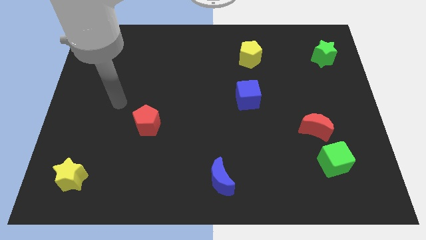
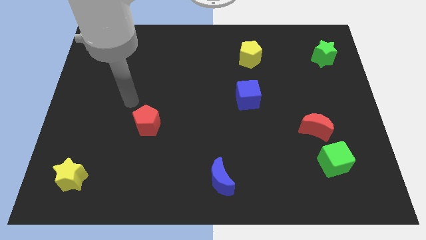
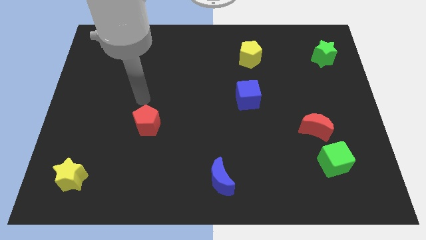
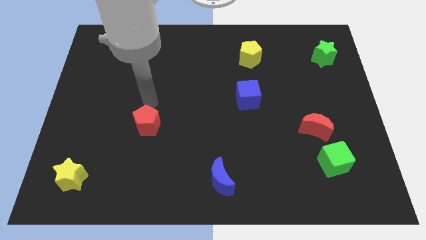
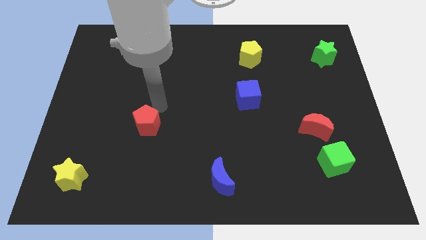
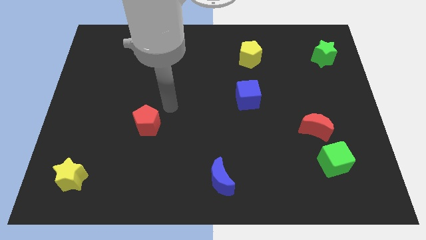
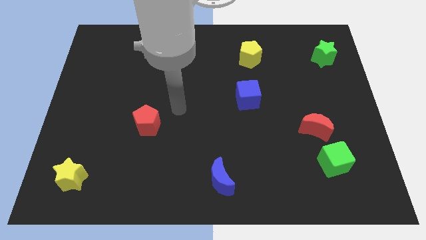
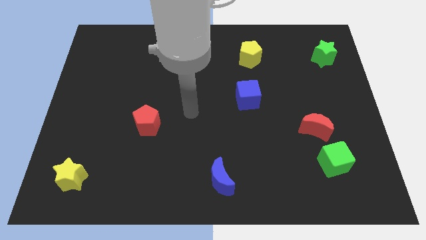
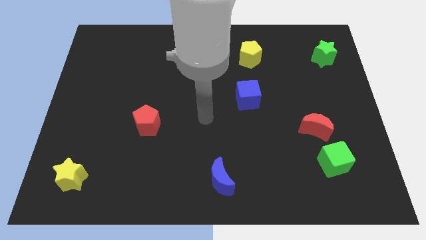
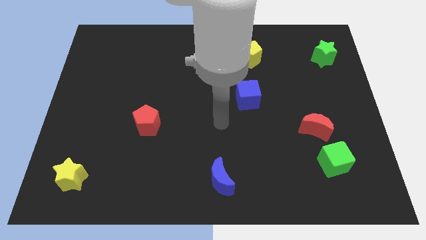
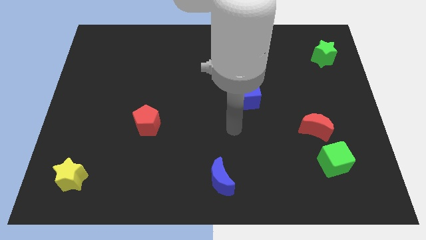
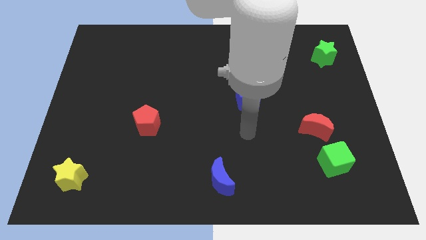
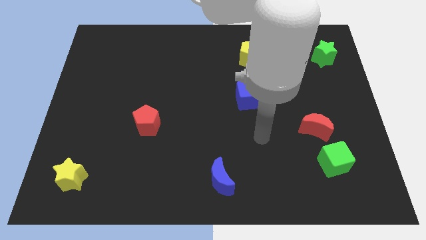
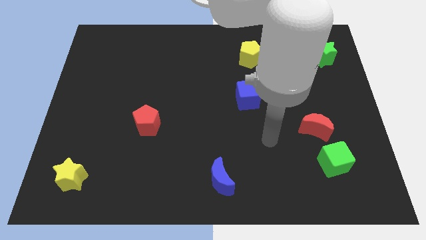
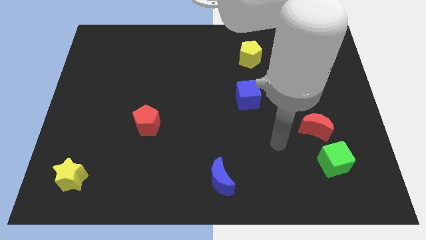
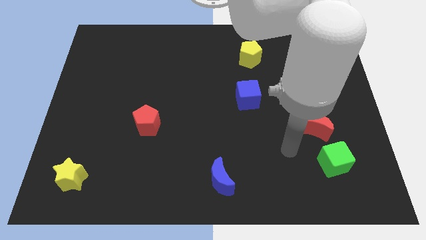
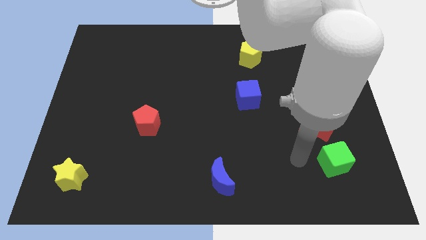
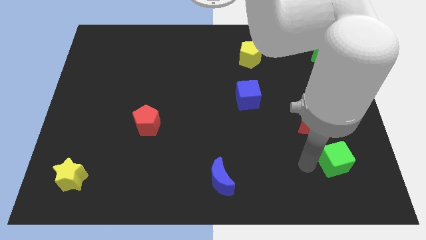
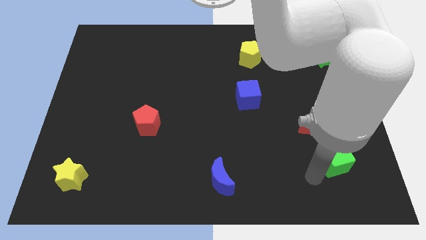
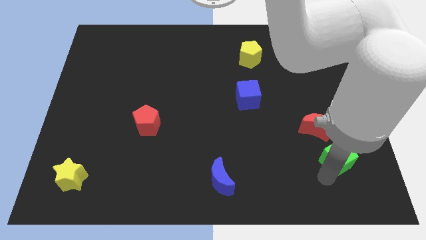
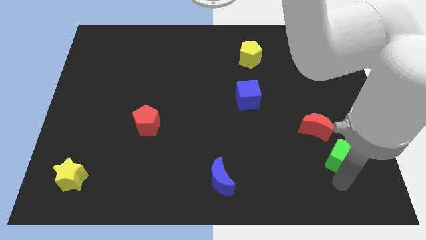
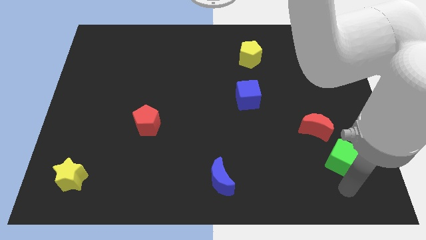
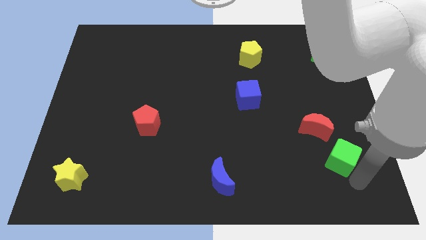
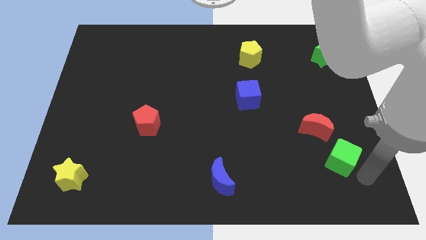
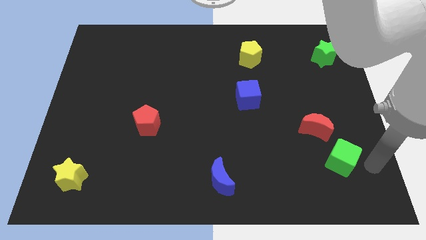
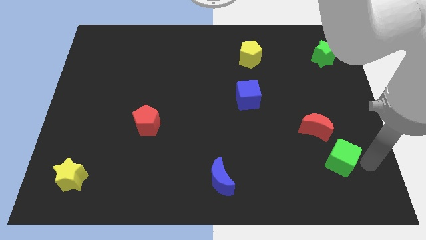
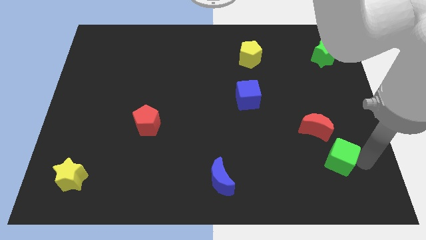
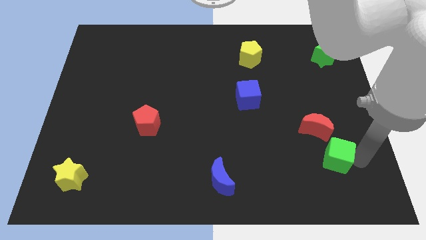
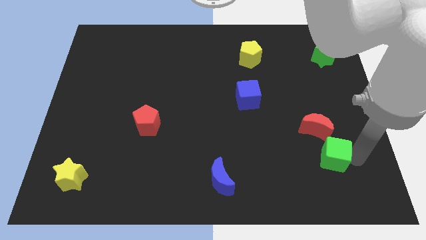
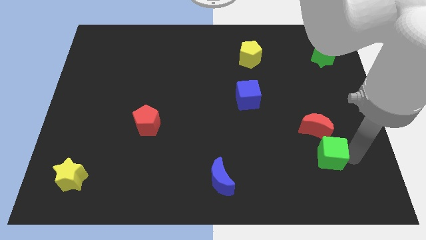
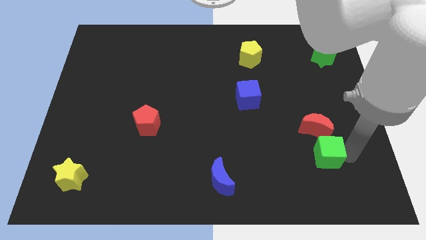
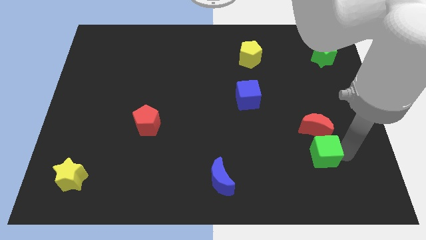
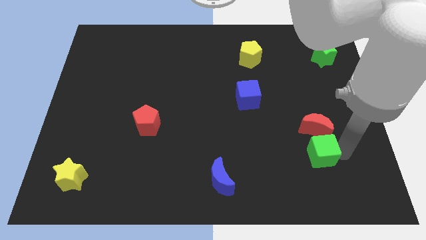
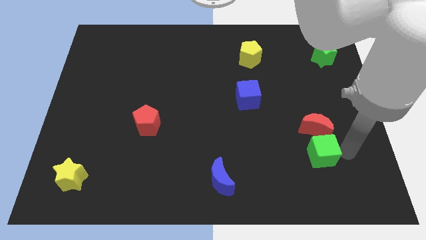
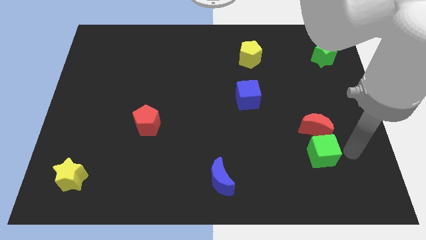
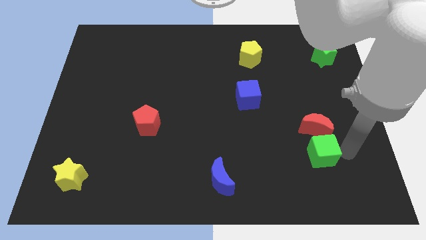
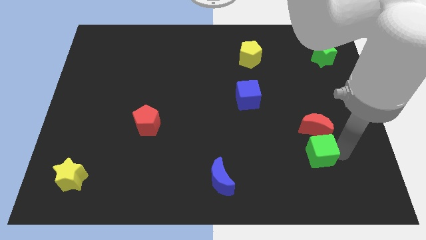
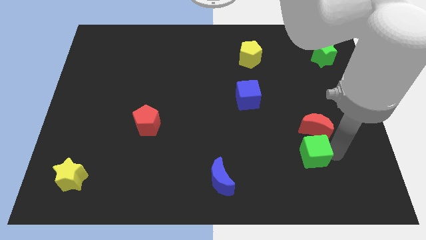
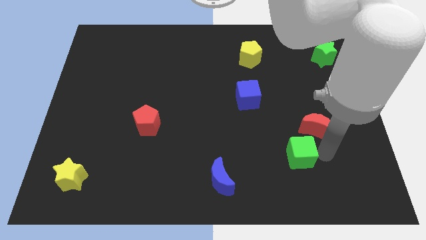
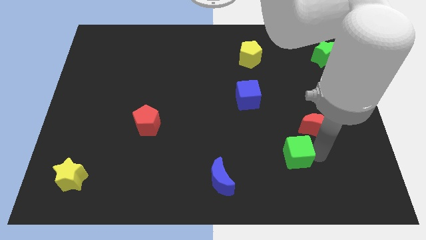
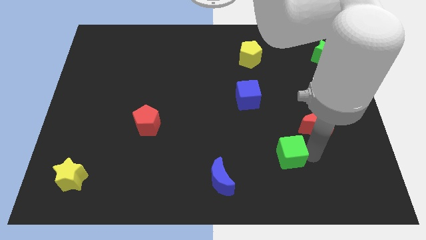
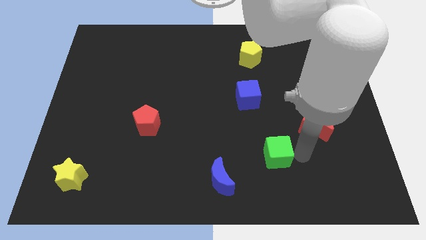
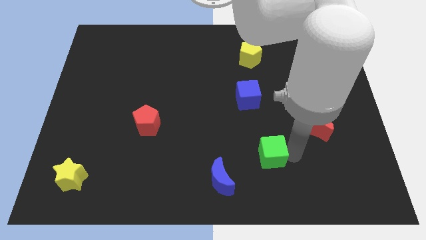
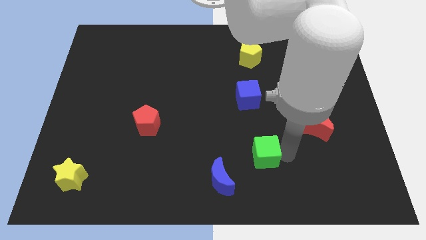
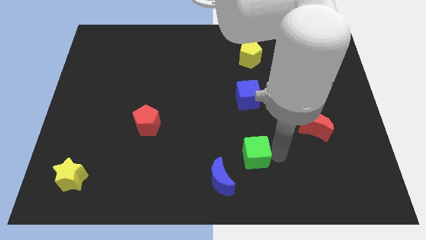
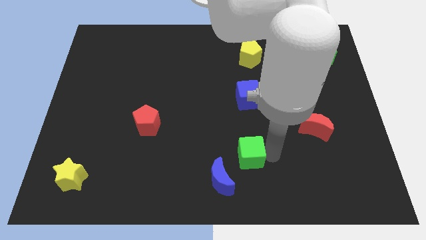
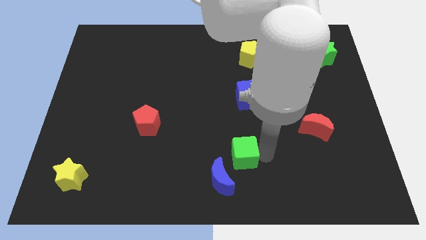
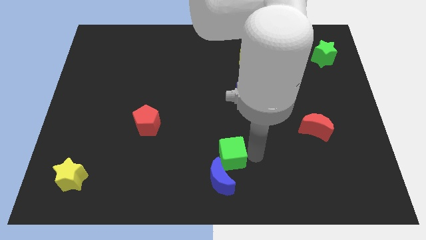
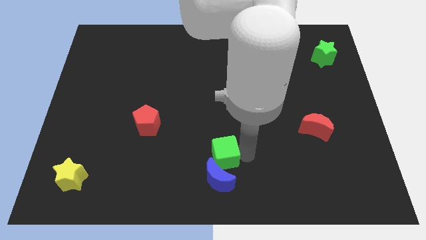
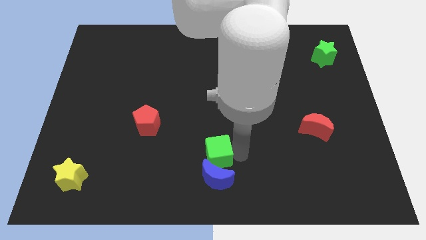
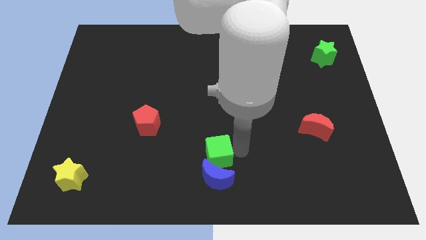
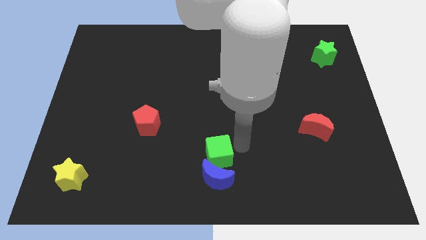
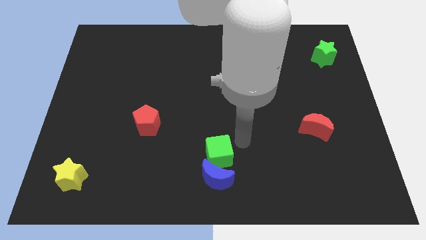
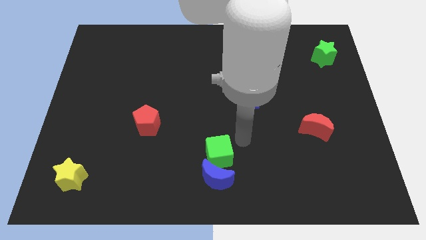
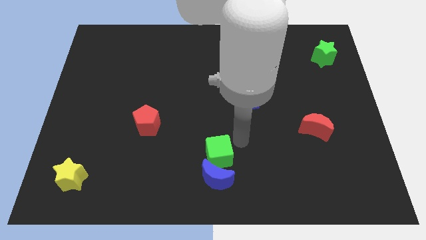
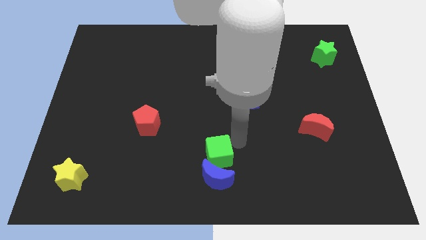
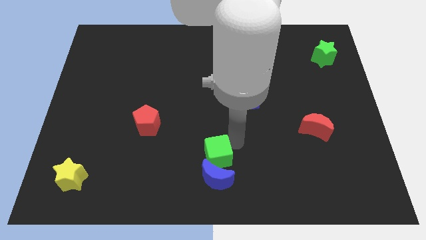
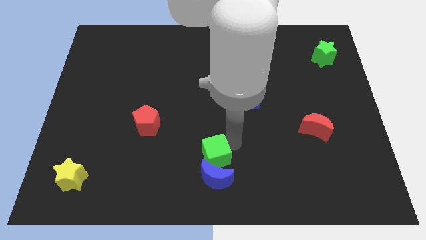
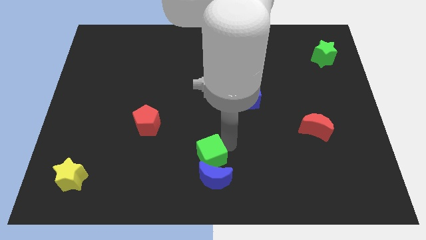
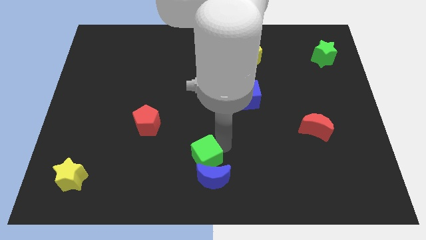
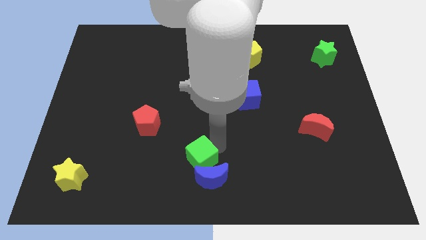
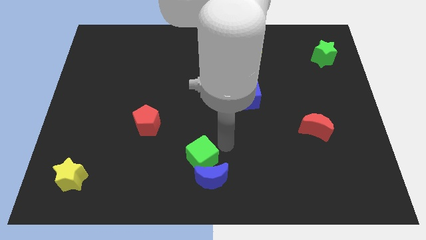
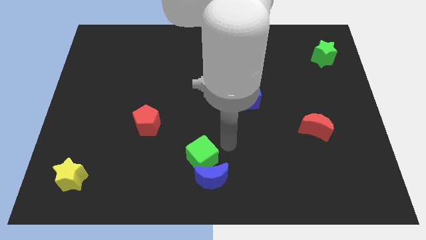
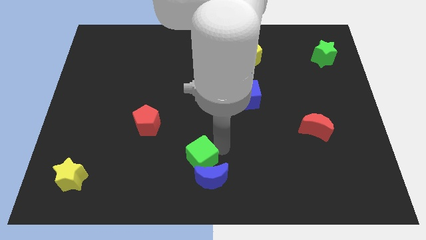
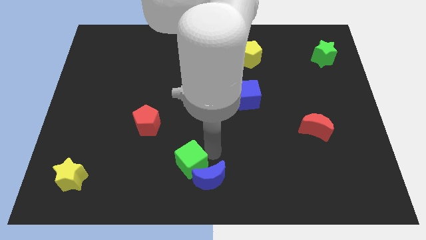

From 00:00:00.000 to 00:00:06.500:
slide the green cube left of the blue moon
